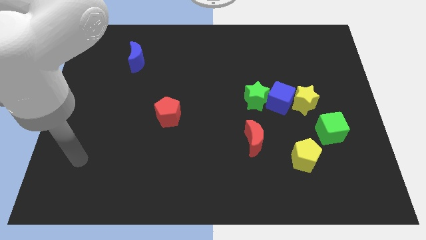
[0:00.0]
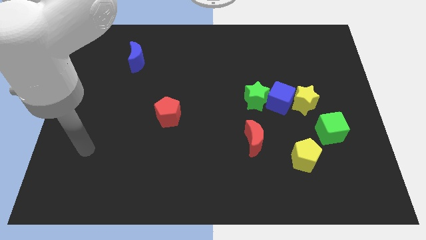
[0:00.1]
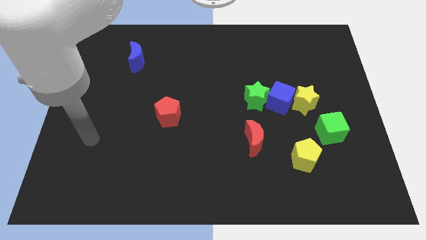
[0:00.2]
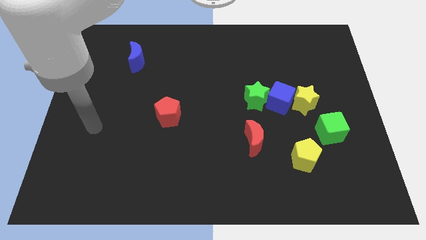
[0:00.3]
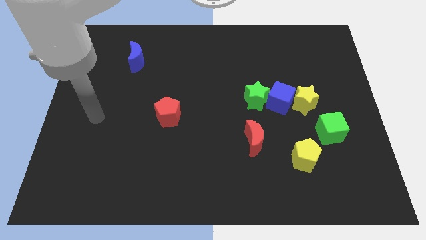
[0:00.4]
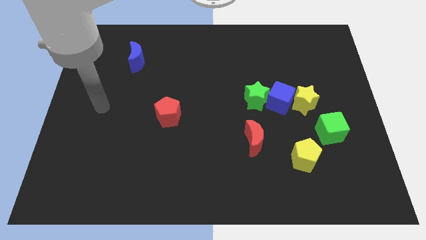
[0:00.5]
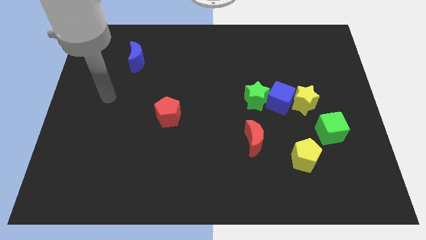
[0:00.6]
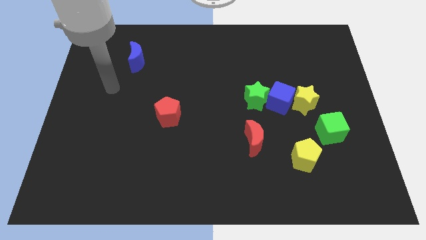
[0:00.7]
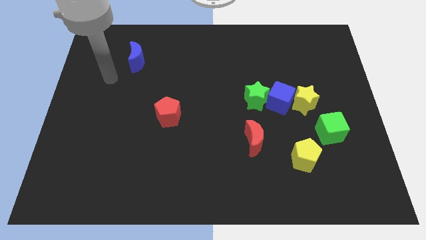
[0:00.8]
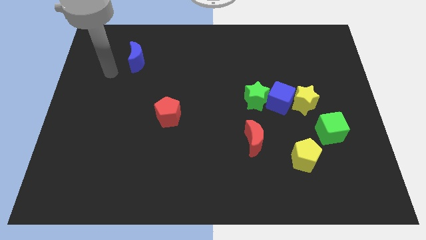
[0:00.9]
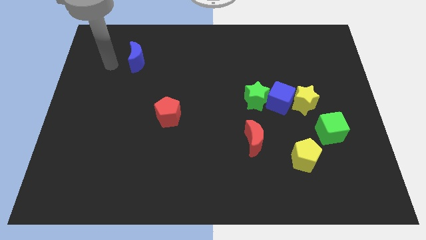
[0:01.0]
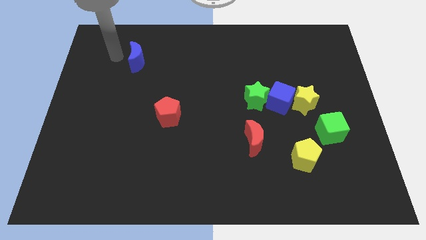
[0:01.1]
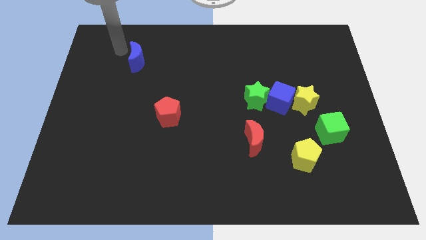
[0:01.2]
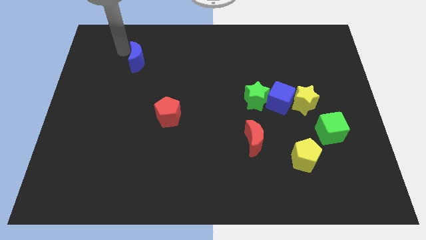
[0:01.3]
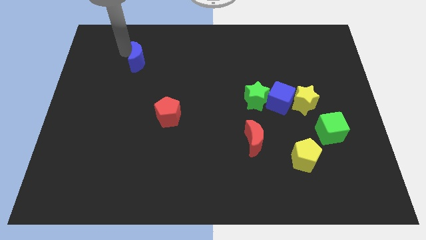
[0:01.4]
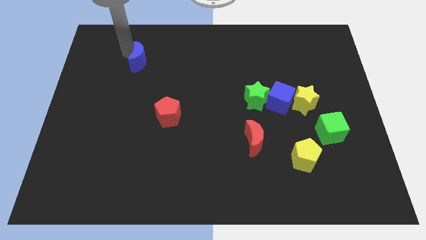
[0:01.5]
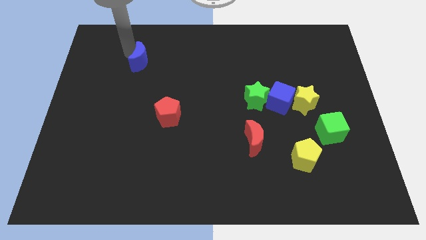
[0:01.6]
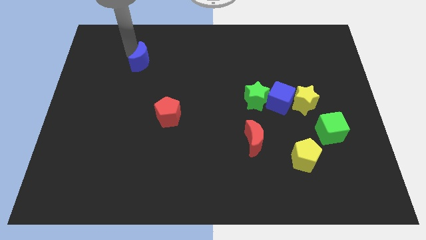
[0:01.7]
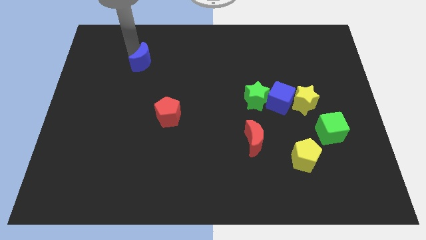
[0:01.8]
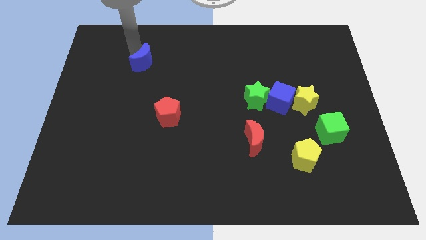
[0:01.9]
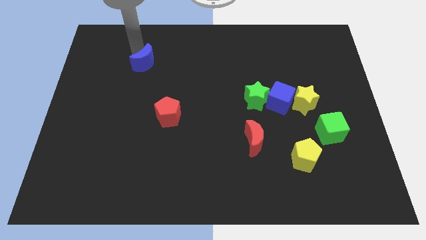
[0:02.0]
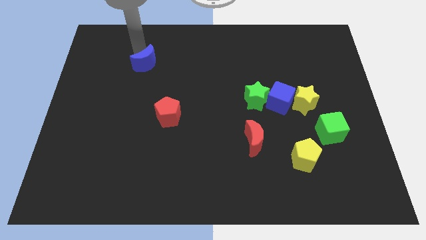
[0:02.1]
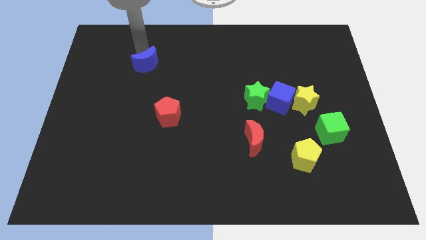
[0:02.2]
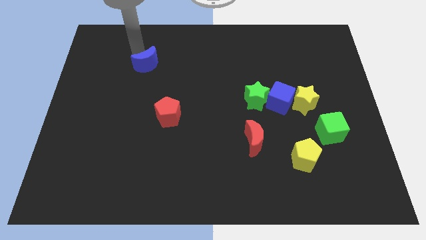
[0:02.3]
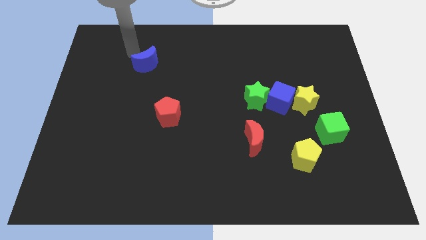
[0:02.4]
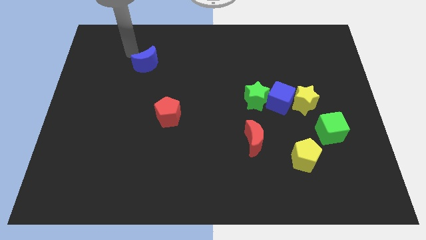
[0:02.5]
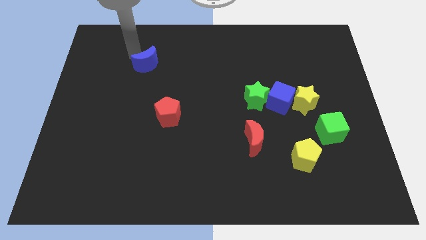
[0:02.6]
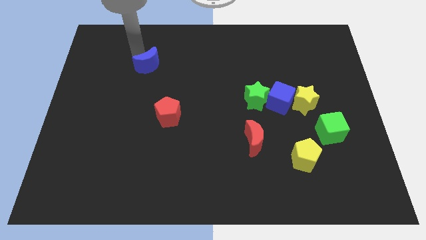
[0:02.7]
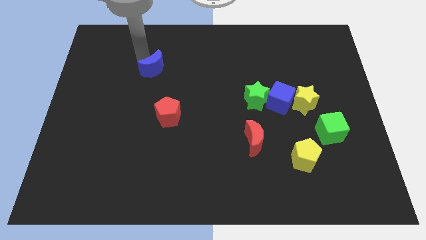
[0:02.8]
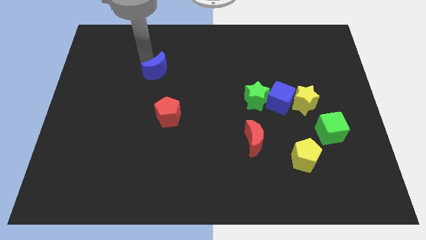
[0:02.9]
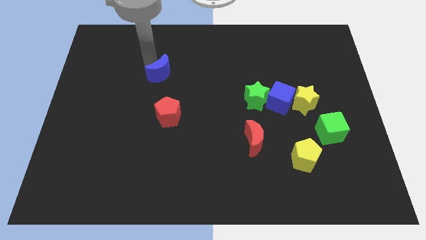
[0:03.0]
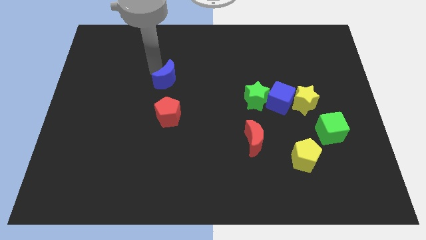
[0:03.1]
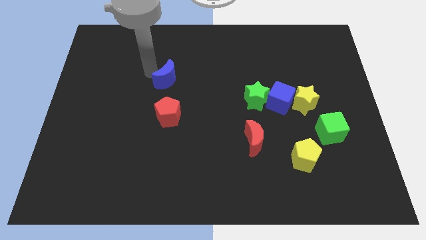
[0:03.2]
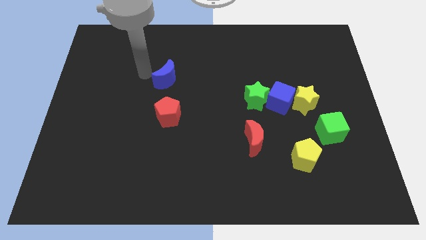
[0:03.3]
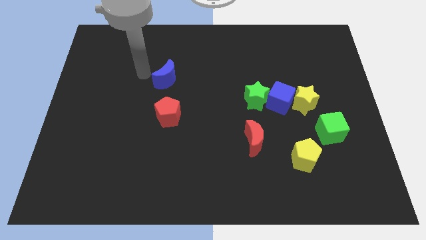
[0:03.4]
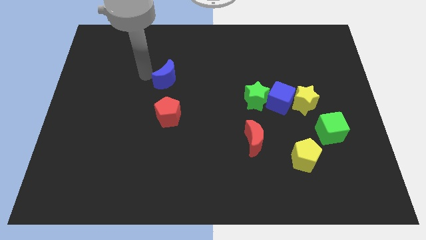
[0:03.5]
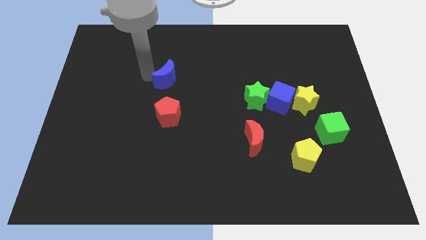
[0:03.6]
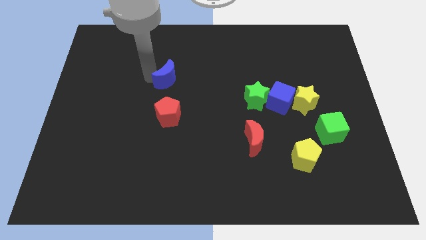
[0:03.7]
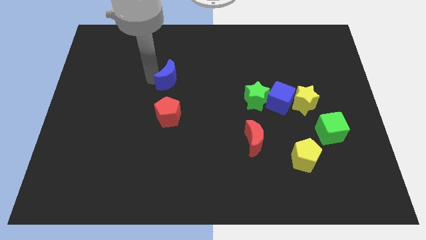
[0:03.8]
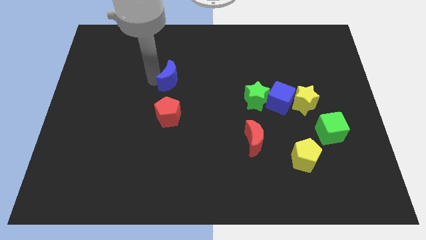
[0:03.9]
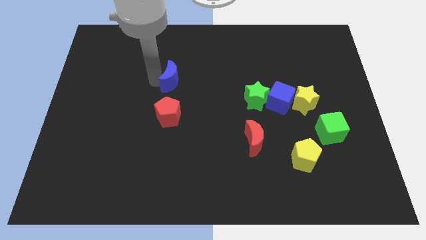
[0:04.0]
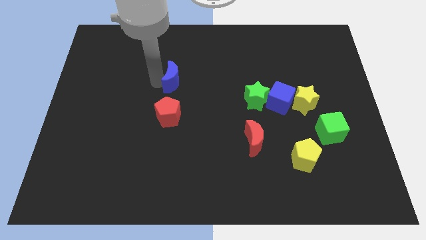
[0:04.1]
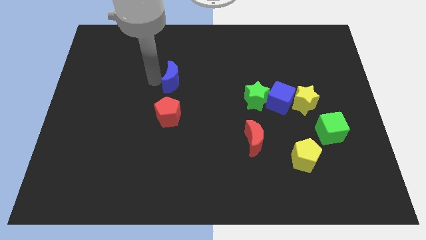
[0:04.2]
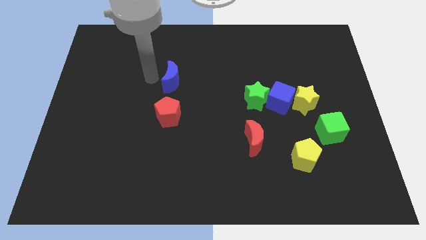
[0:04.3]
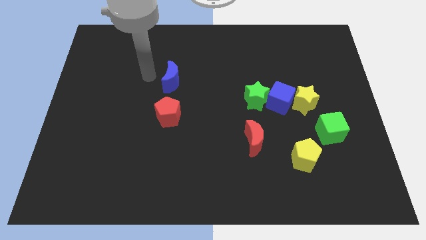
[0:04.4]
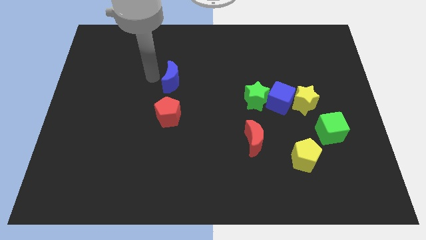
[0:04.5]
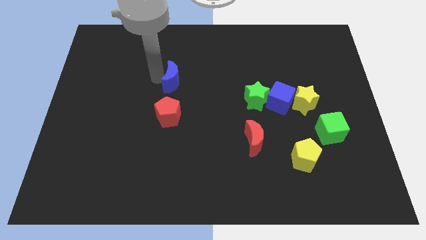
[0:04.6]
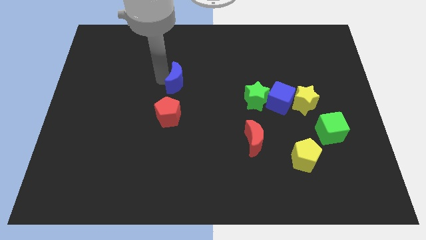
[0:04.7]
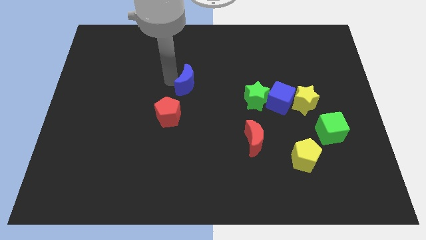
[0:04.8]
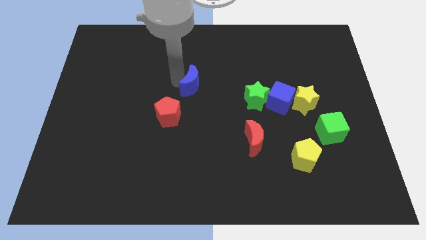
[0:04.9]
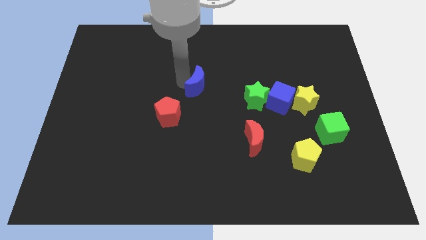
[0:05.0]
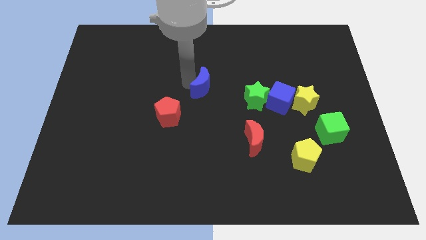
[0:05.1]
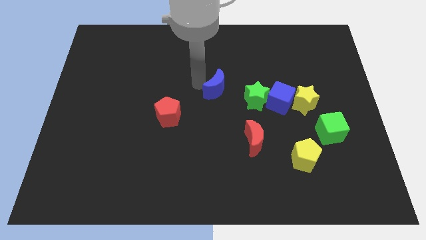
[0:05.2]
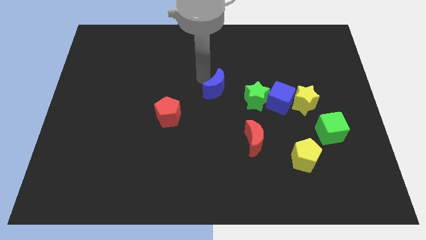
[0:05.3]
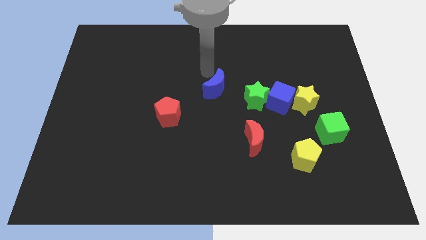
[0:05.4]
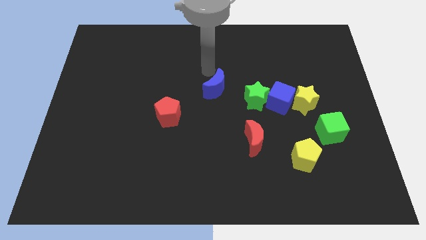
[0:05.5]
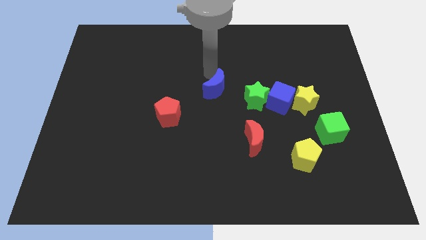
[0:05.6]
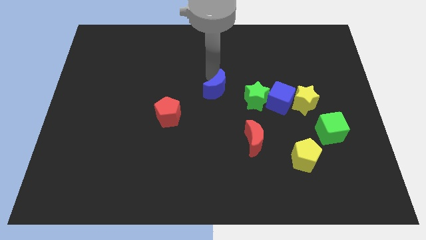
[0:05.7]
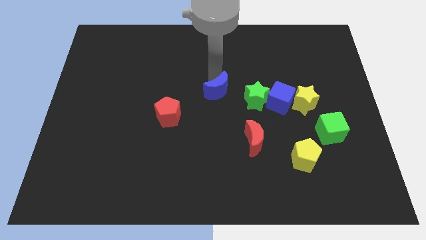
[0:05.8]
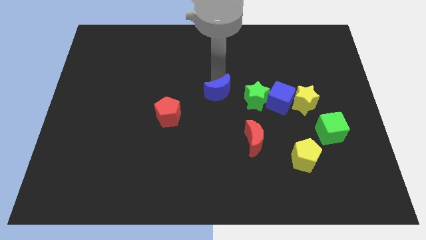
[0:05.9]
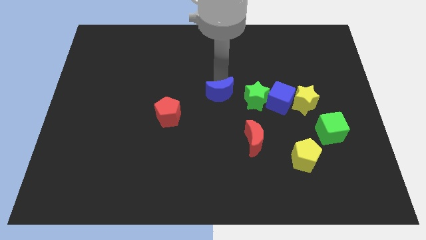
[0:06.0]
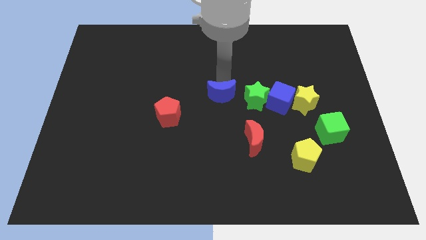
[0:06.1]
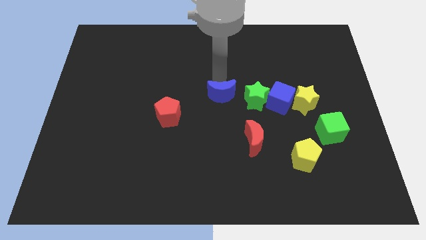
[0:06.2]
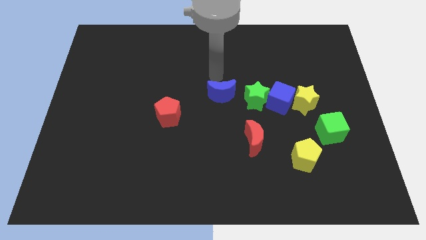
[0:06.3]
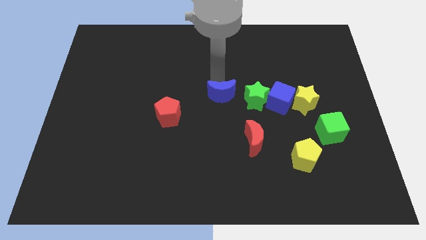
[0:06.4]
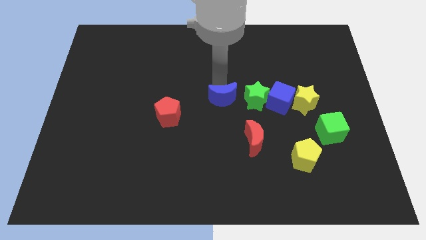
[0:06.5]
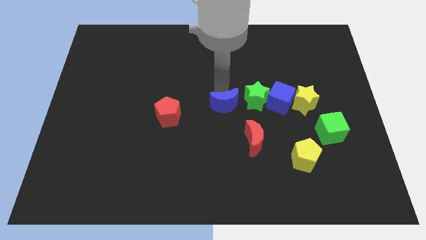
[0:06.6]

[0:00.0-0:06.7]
push the blue moon diagonally up and to the left of the red moon

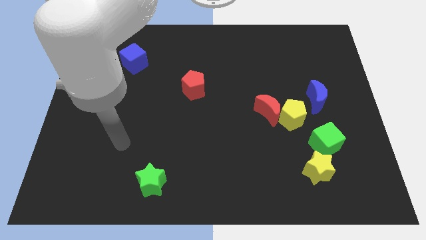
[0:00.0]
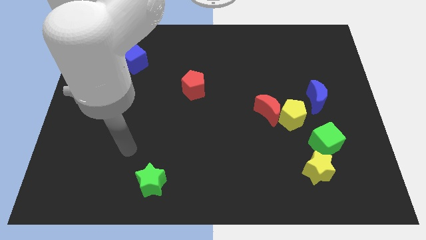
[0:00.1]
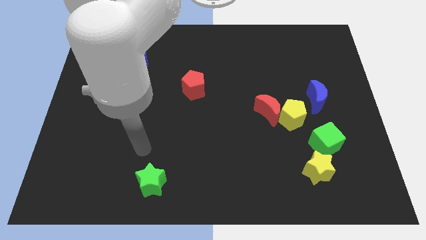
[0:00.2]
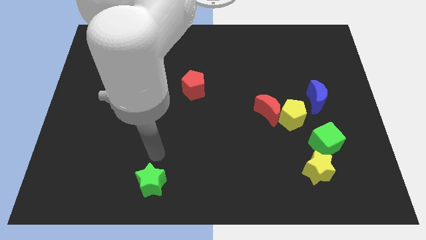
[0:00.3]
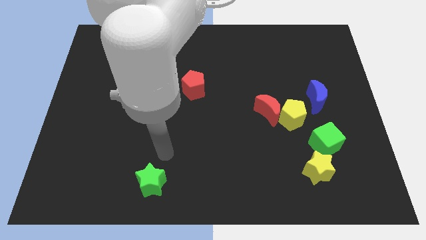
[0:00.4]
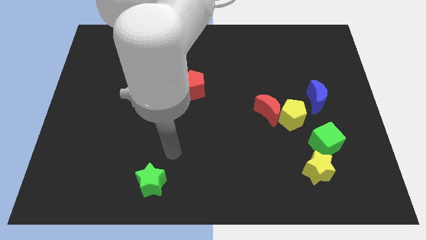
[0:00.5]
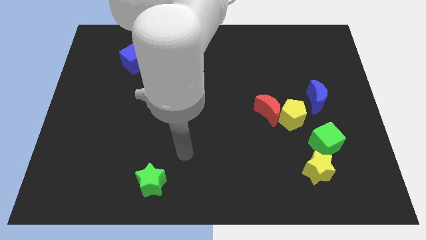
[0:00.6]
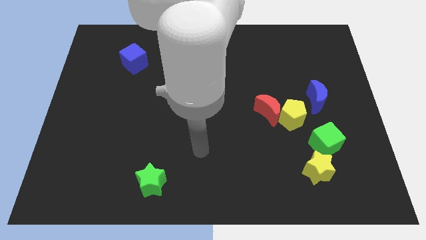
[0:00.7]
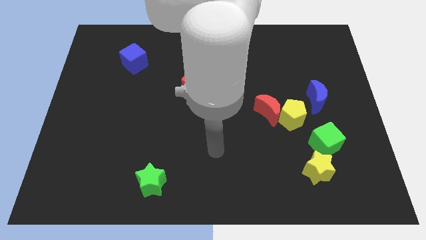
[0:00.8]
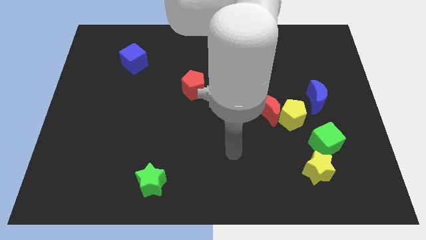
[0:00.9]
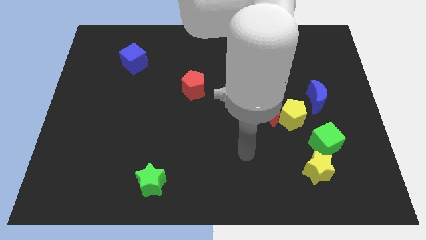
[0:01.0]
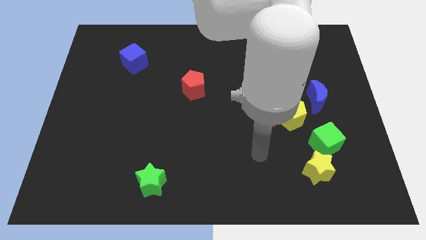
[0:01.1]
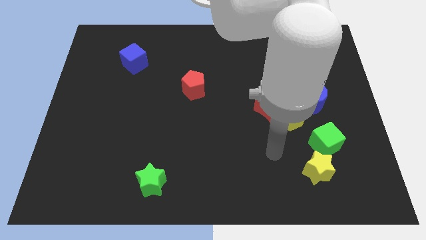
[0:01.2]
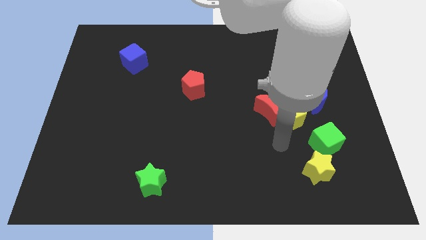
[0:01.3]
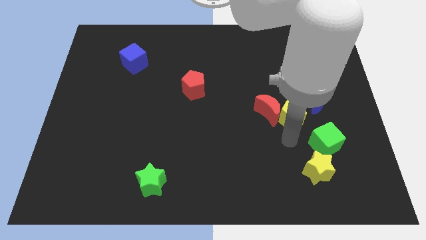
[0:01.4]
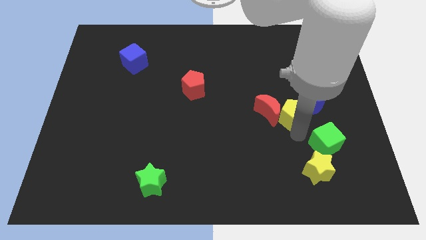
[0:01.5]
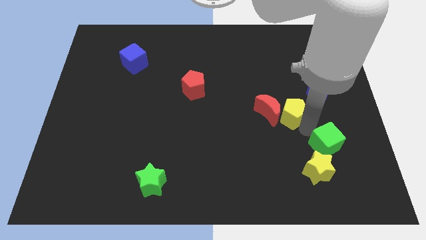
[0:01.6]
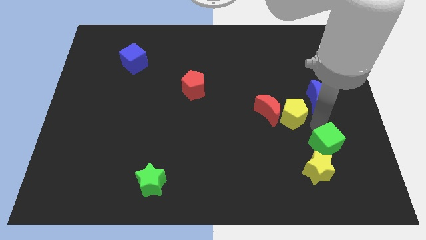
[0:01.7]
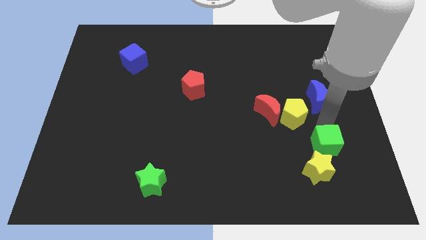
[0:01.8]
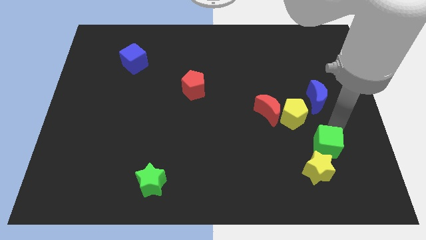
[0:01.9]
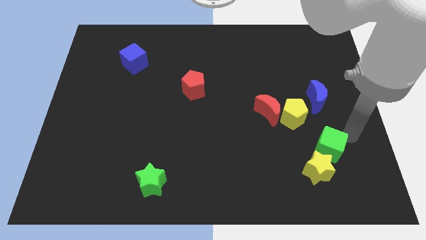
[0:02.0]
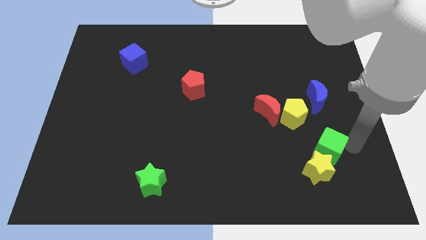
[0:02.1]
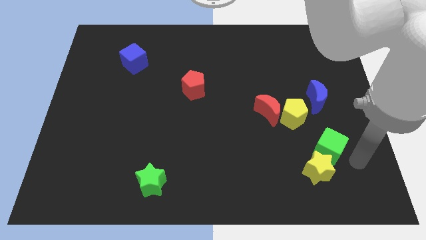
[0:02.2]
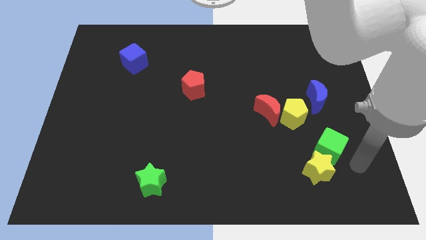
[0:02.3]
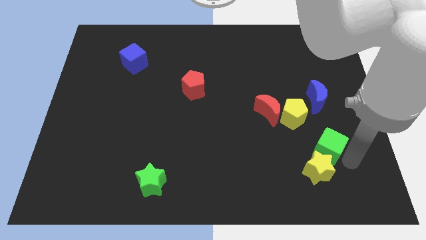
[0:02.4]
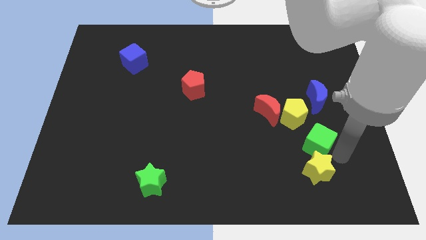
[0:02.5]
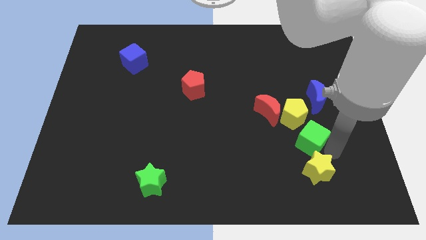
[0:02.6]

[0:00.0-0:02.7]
move the green cube diagonally down and to the right of the red moon
